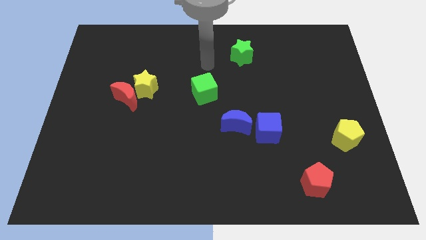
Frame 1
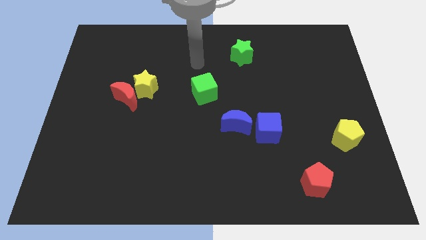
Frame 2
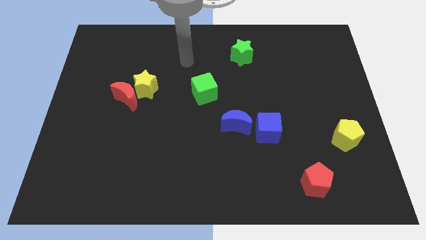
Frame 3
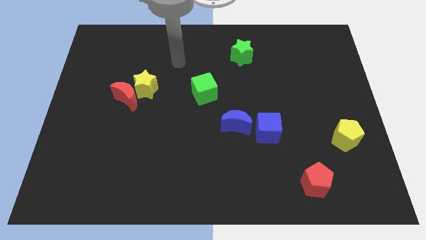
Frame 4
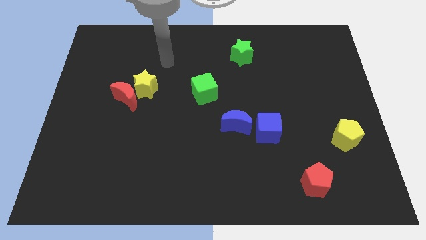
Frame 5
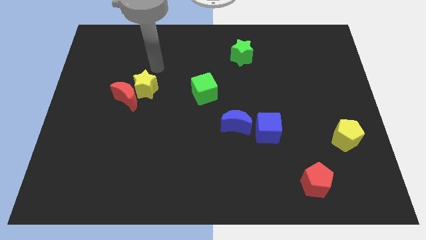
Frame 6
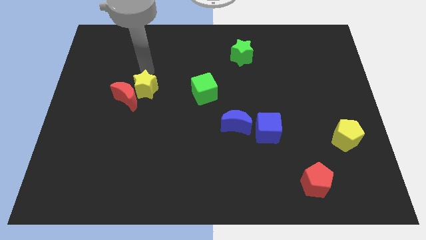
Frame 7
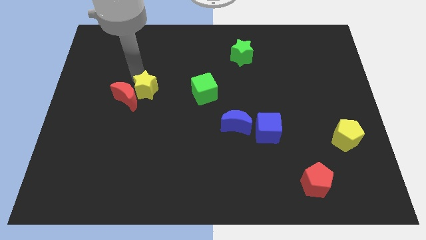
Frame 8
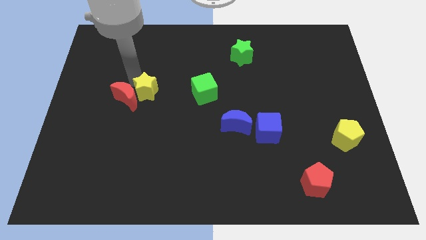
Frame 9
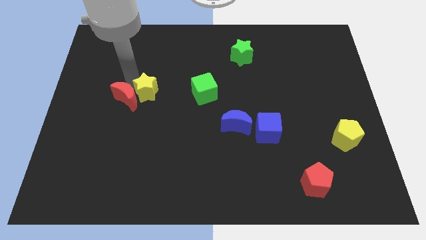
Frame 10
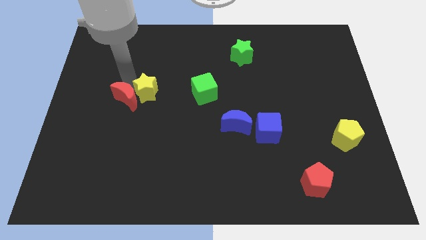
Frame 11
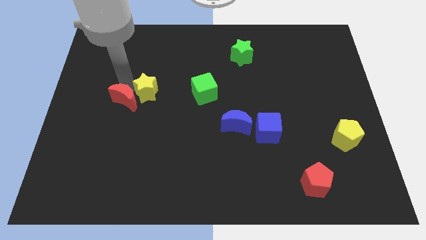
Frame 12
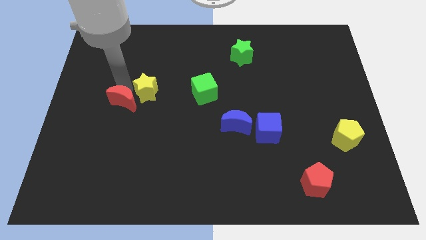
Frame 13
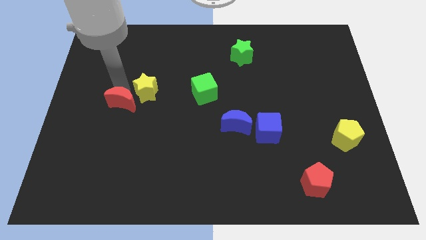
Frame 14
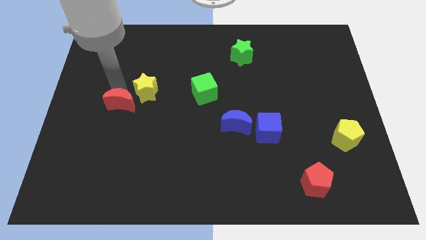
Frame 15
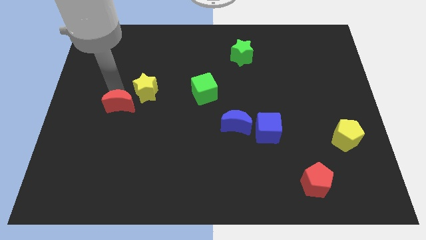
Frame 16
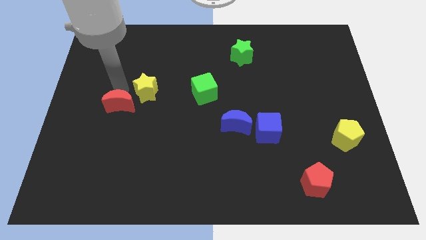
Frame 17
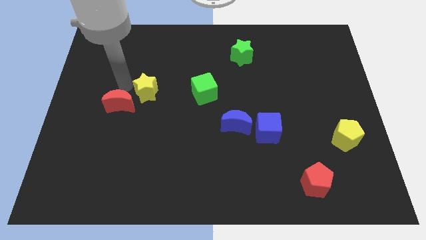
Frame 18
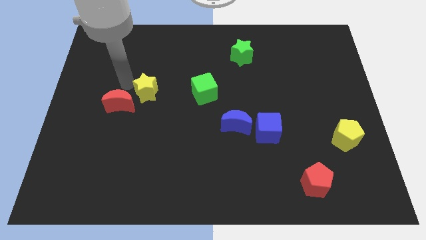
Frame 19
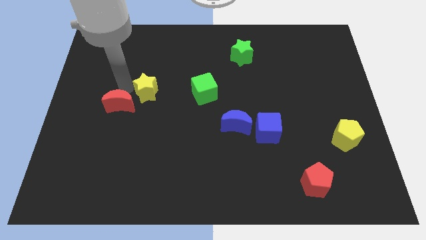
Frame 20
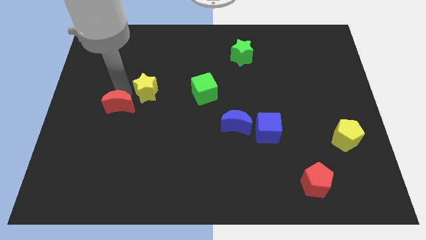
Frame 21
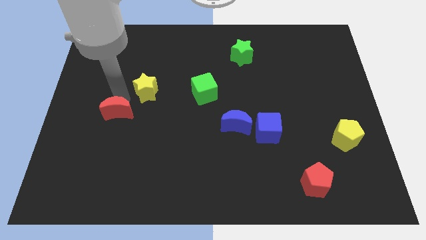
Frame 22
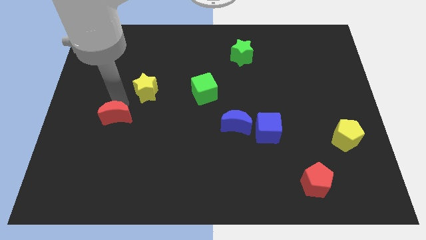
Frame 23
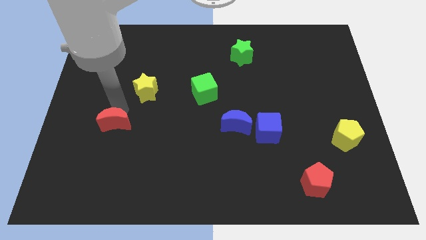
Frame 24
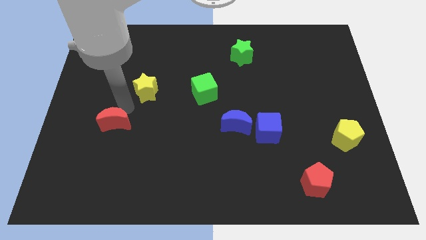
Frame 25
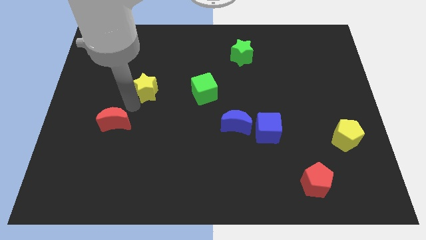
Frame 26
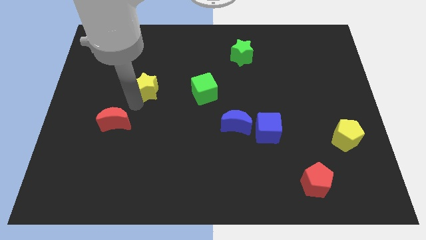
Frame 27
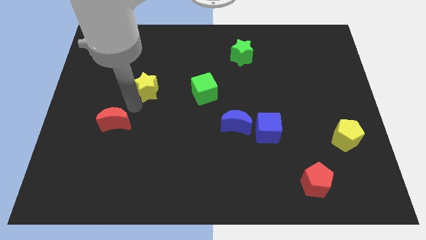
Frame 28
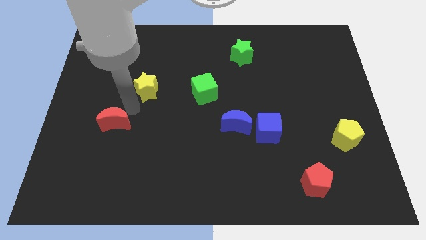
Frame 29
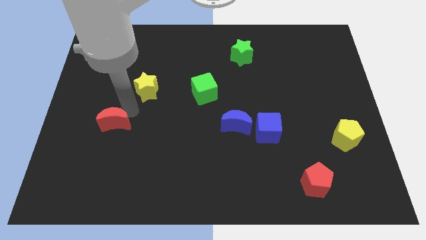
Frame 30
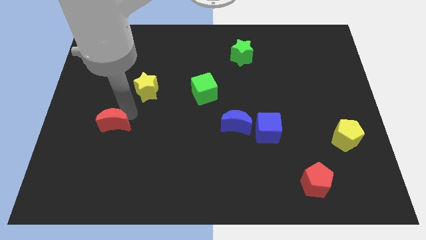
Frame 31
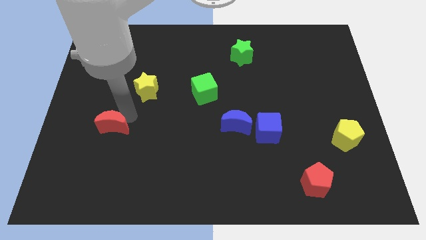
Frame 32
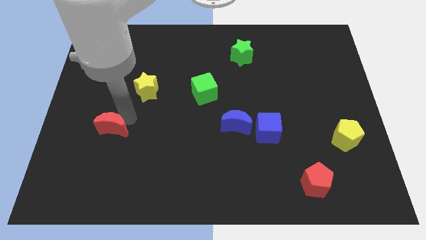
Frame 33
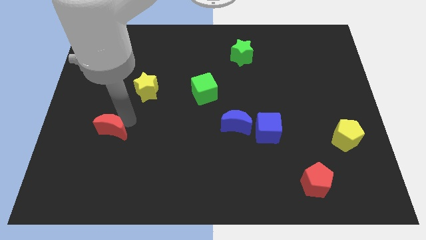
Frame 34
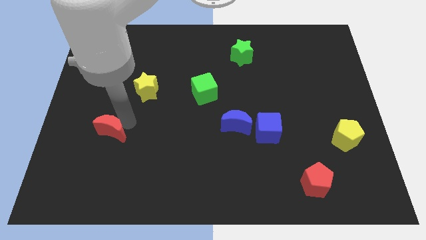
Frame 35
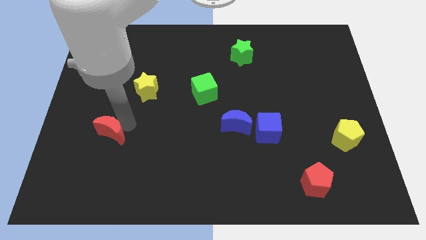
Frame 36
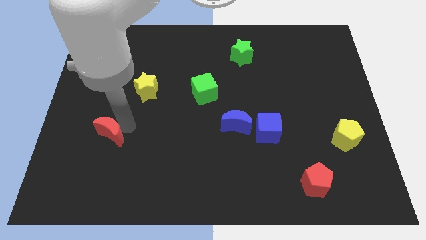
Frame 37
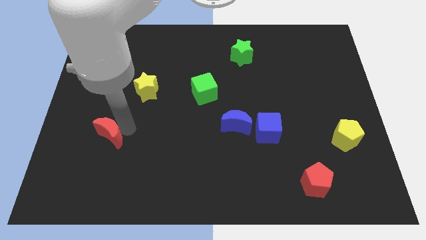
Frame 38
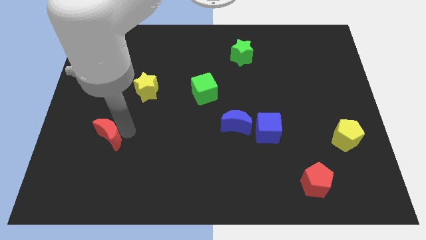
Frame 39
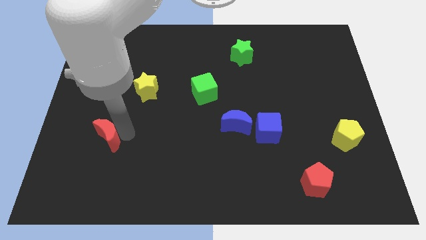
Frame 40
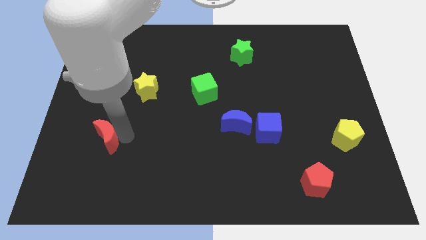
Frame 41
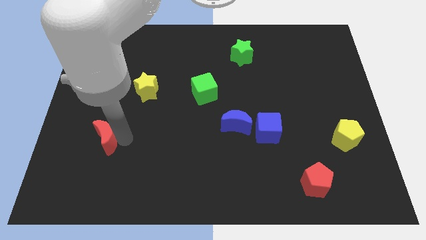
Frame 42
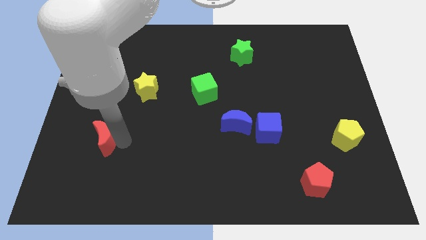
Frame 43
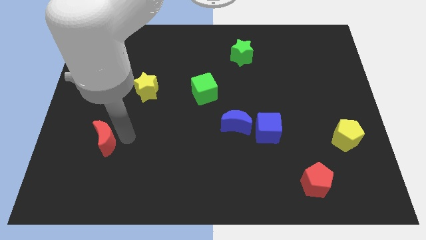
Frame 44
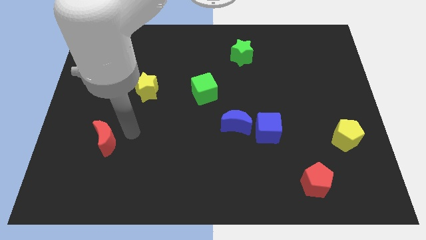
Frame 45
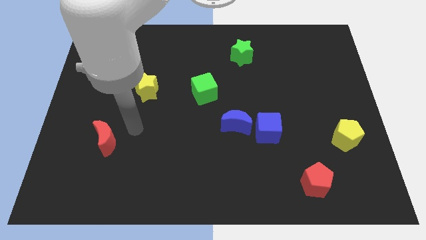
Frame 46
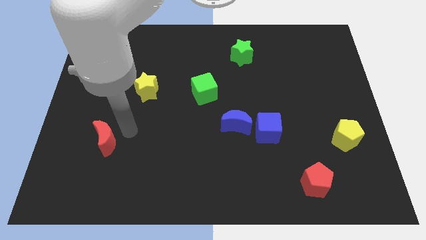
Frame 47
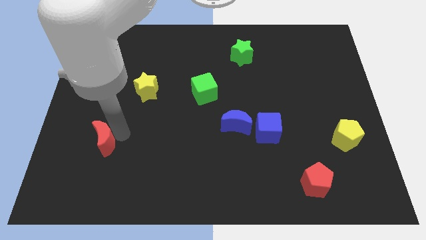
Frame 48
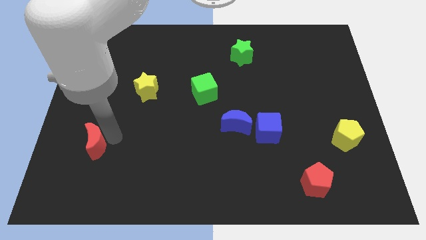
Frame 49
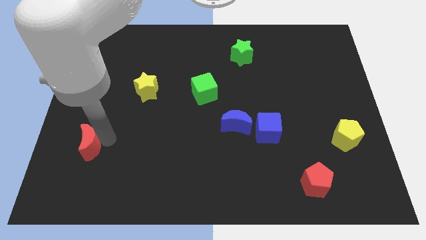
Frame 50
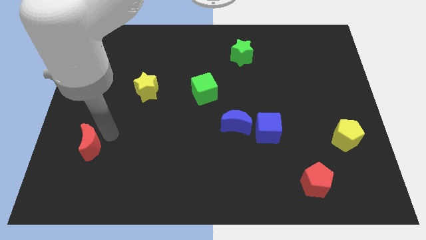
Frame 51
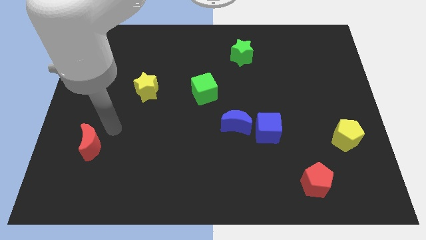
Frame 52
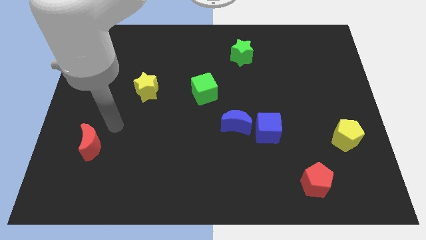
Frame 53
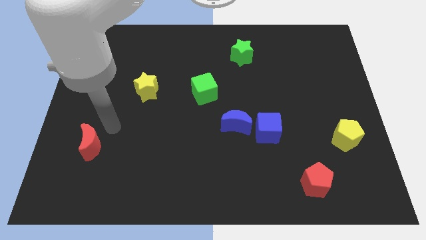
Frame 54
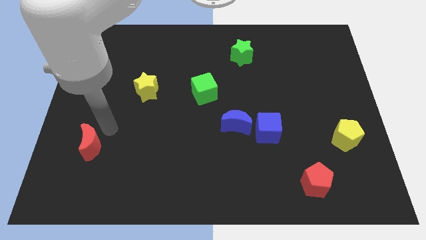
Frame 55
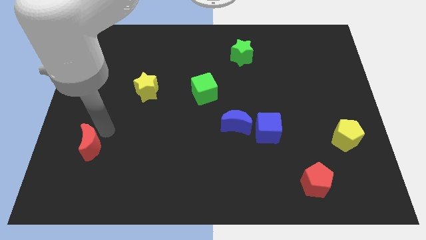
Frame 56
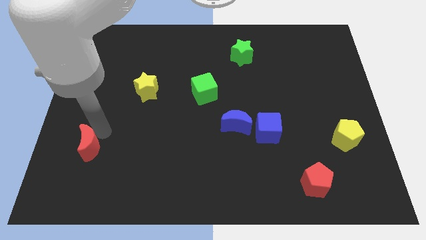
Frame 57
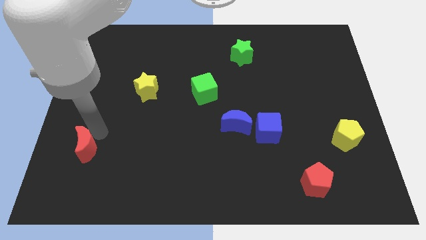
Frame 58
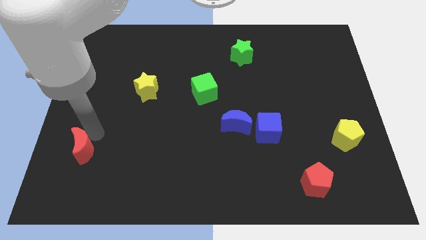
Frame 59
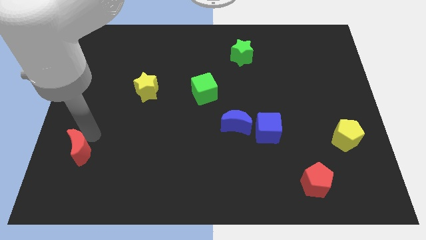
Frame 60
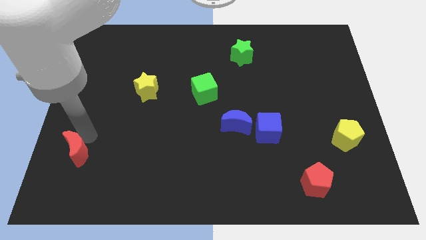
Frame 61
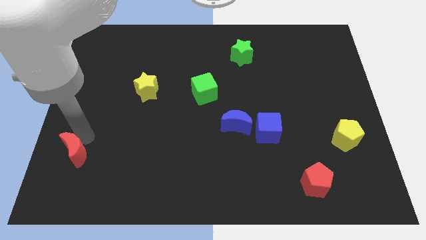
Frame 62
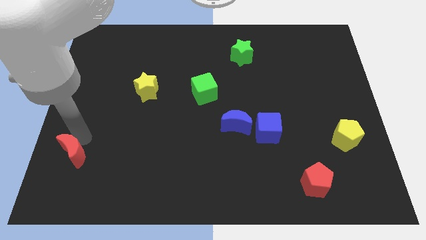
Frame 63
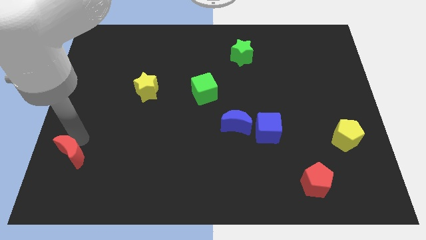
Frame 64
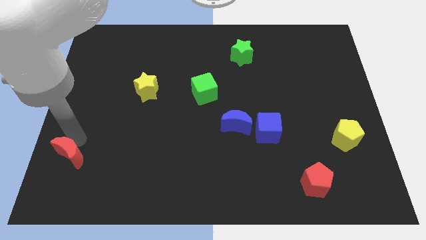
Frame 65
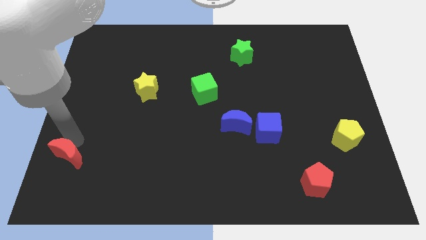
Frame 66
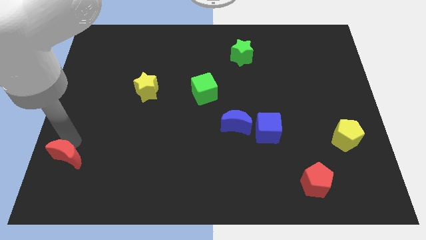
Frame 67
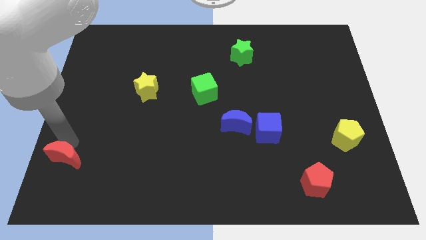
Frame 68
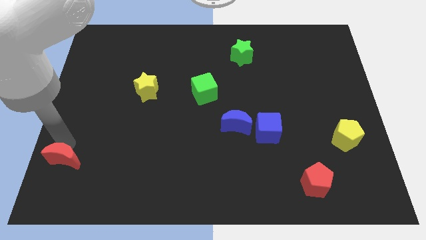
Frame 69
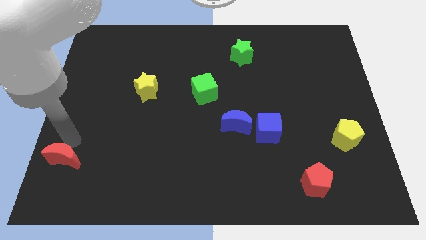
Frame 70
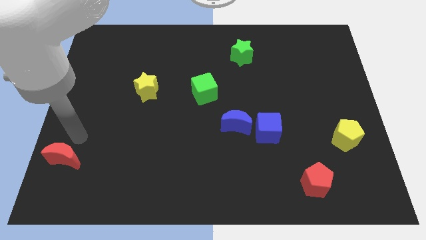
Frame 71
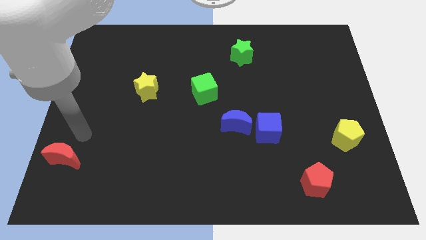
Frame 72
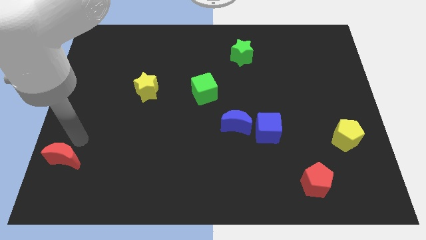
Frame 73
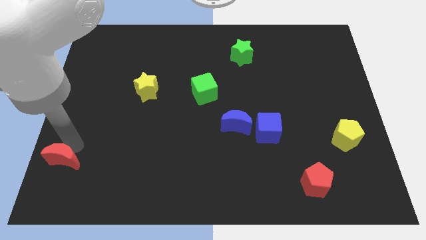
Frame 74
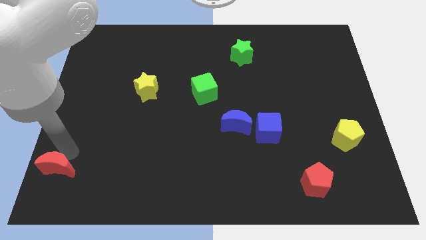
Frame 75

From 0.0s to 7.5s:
slide the red moon to the bottom left
